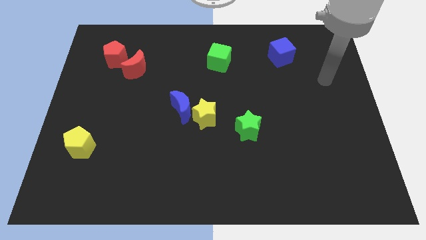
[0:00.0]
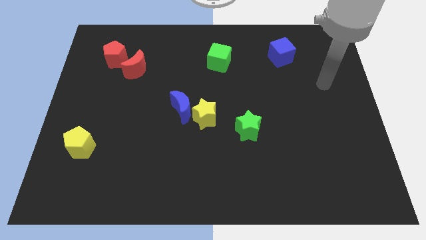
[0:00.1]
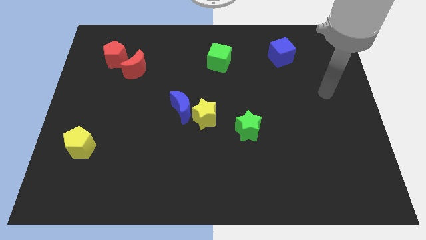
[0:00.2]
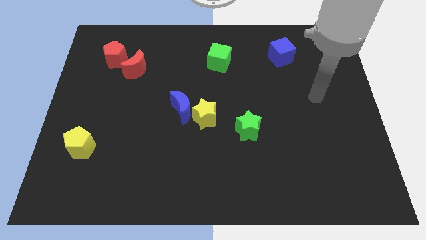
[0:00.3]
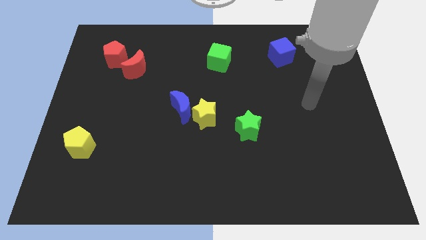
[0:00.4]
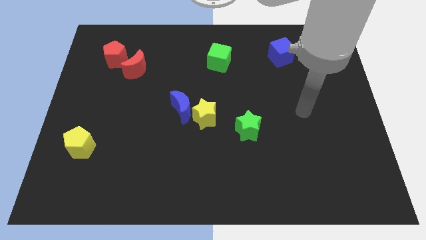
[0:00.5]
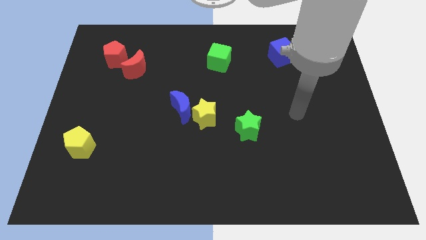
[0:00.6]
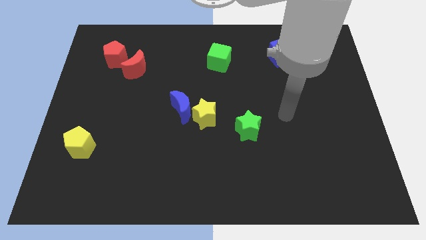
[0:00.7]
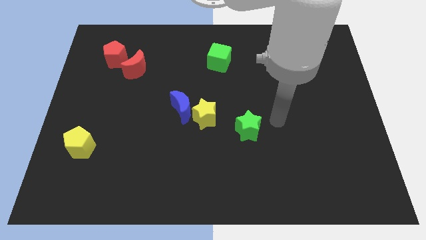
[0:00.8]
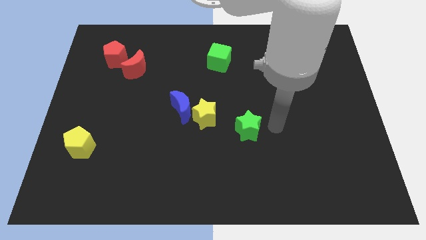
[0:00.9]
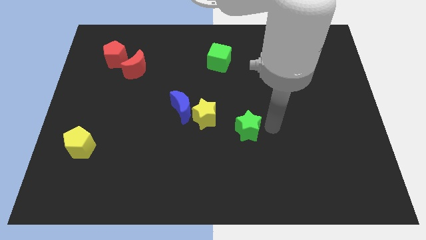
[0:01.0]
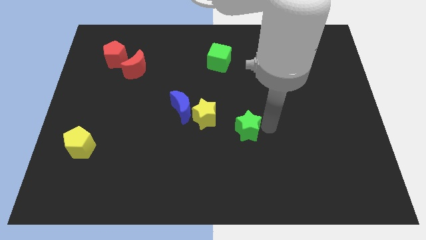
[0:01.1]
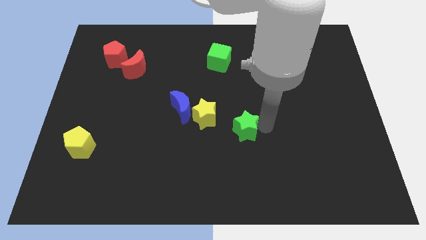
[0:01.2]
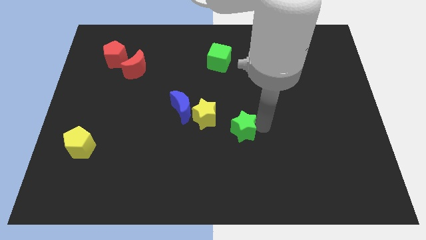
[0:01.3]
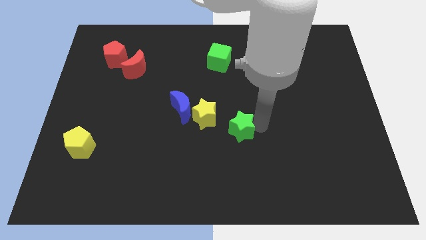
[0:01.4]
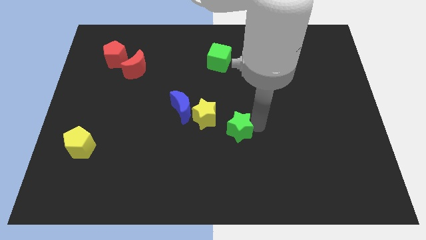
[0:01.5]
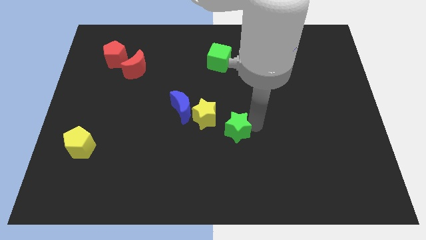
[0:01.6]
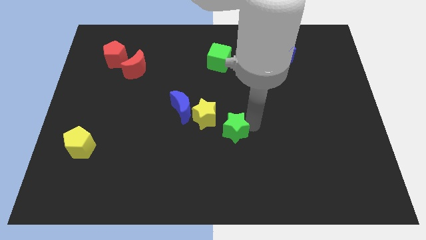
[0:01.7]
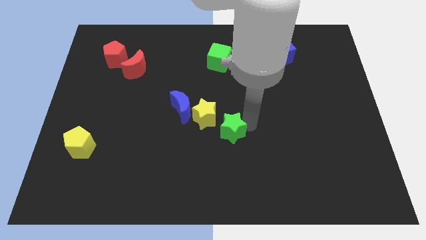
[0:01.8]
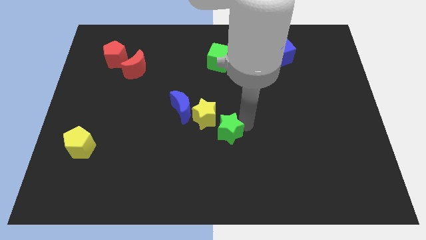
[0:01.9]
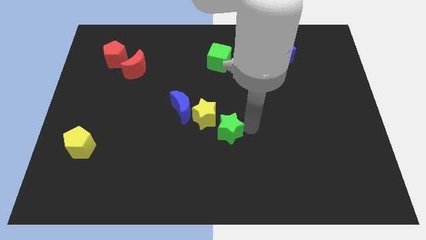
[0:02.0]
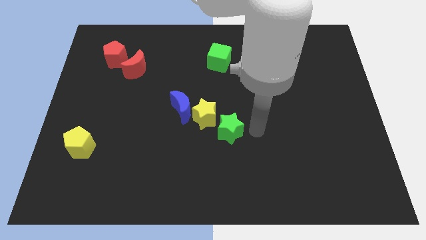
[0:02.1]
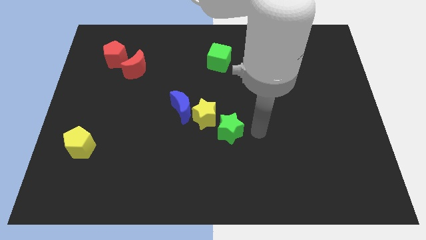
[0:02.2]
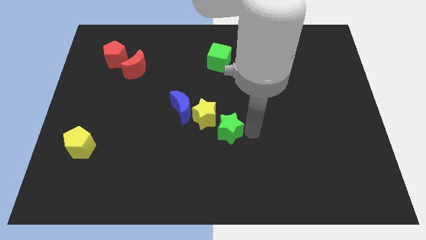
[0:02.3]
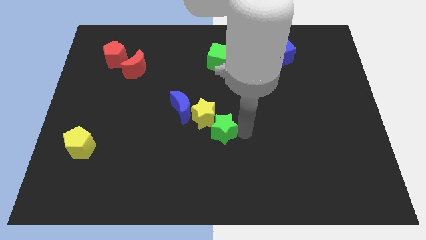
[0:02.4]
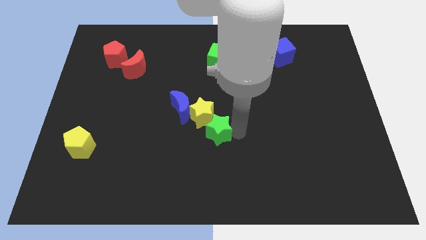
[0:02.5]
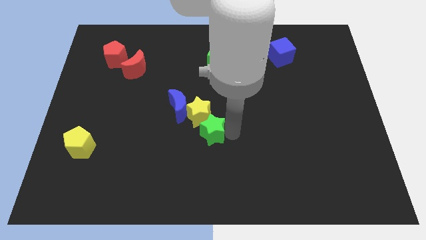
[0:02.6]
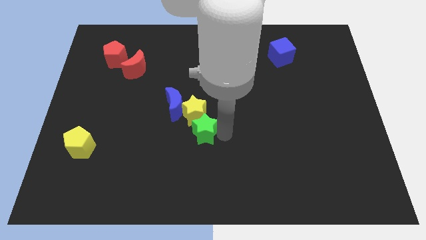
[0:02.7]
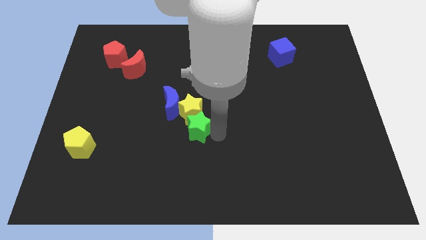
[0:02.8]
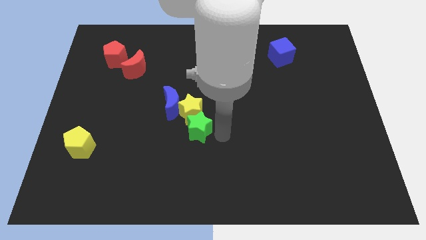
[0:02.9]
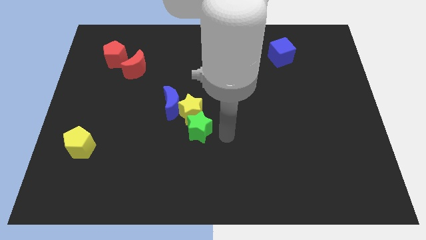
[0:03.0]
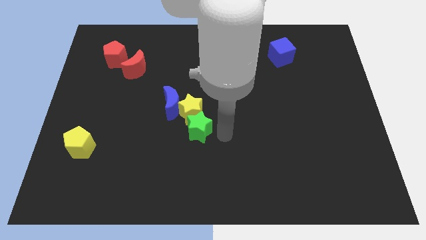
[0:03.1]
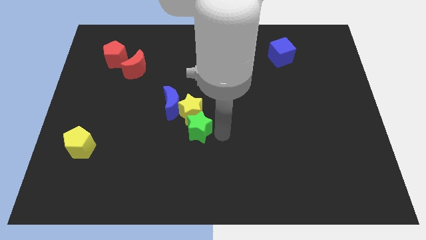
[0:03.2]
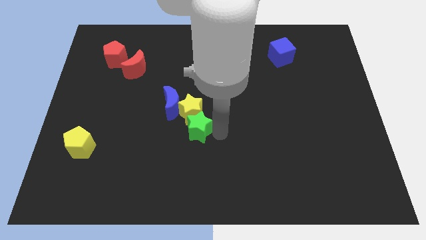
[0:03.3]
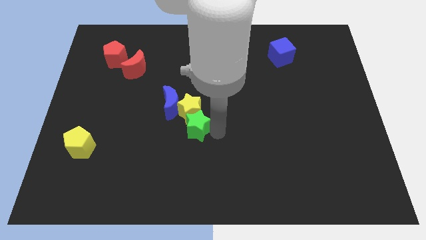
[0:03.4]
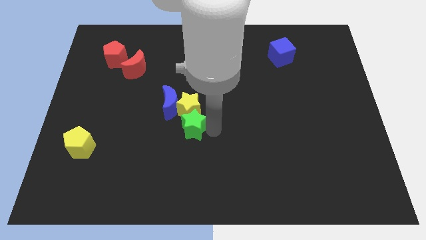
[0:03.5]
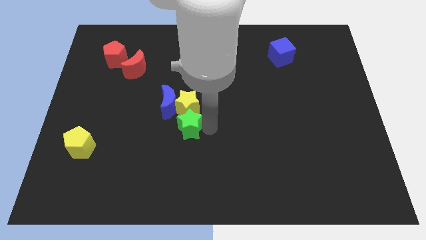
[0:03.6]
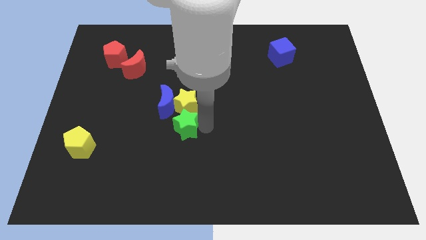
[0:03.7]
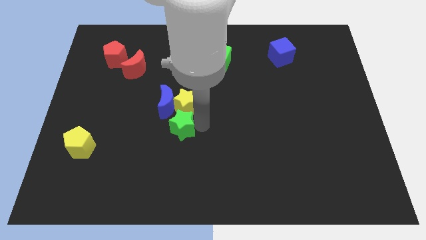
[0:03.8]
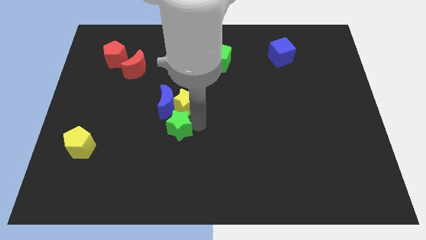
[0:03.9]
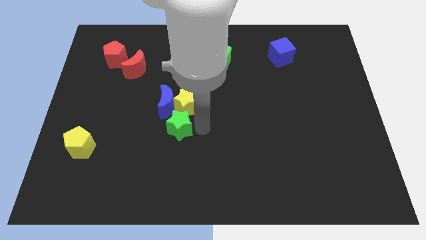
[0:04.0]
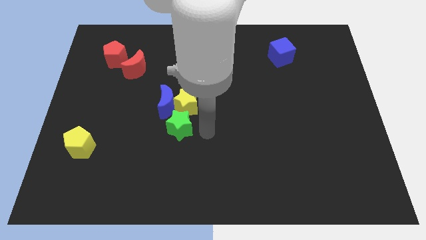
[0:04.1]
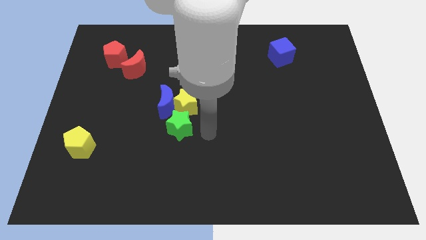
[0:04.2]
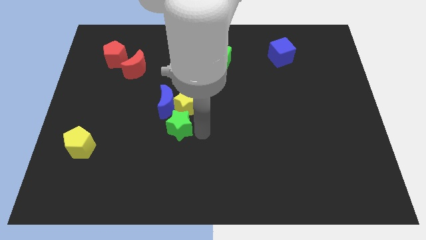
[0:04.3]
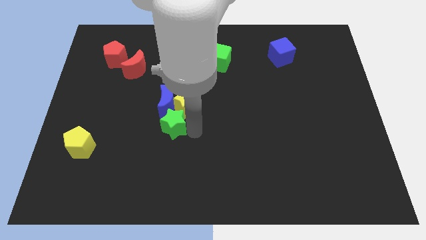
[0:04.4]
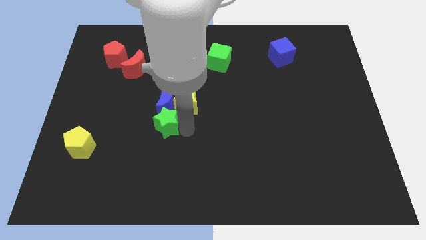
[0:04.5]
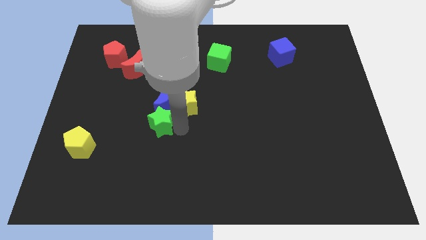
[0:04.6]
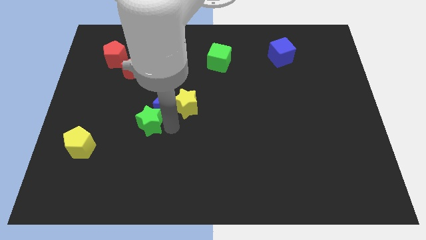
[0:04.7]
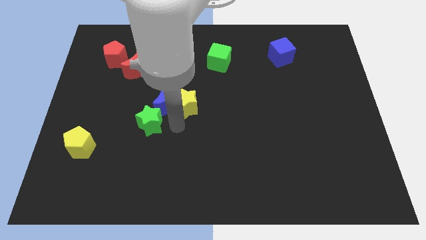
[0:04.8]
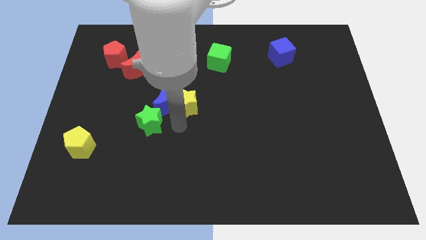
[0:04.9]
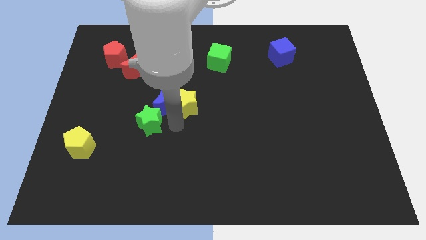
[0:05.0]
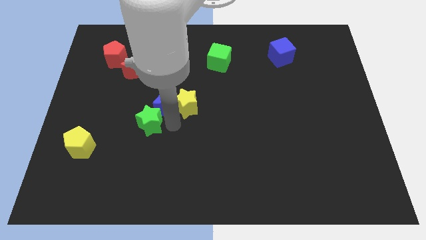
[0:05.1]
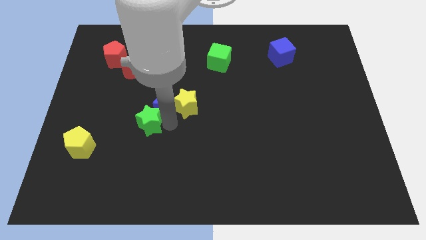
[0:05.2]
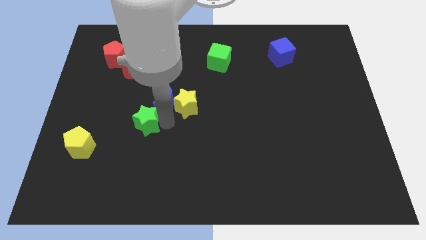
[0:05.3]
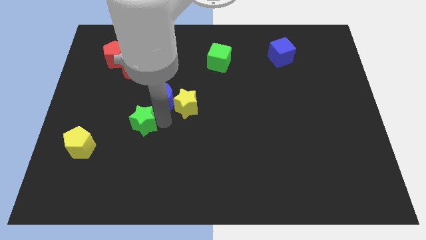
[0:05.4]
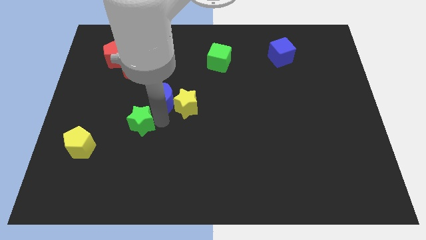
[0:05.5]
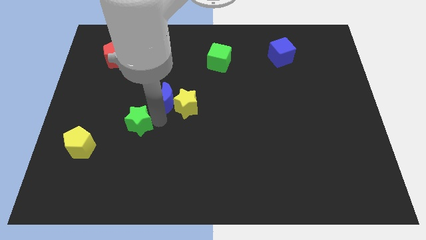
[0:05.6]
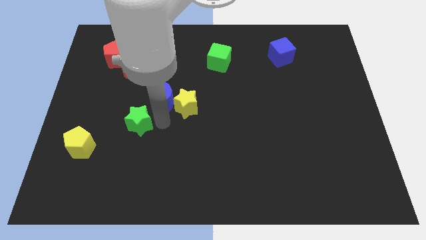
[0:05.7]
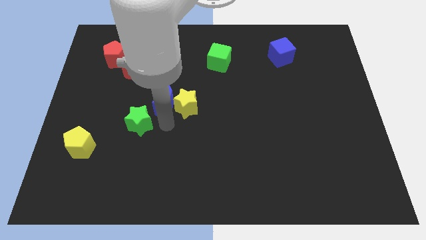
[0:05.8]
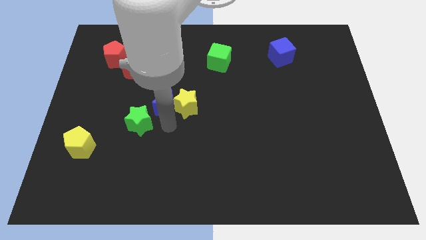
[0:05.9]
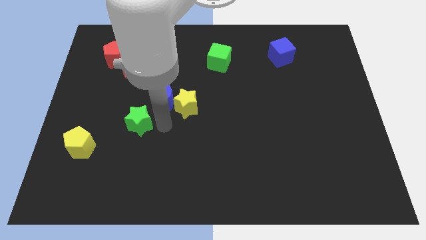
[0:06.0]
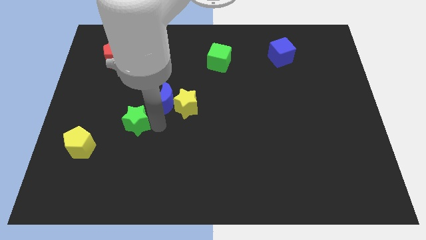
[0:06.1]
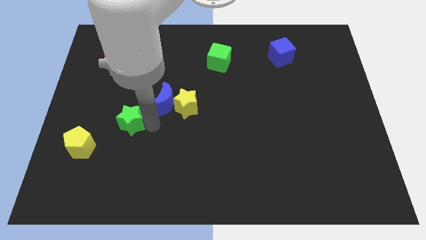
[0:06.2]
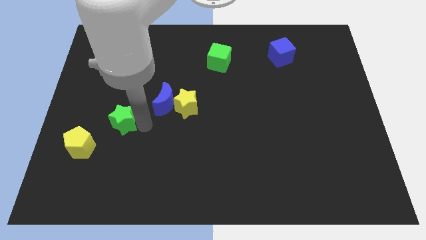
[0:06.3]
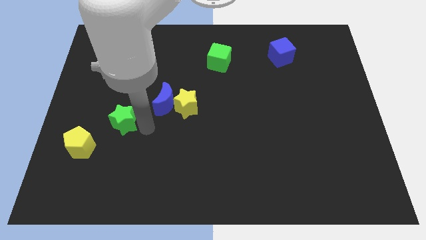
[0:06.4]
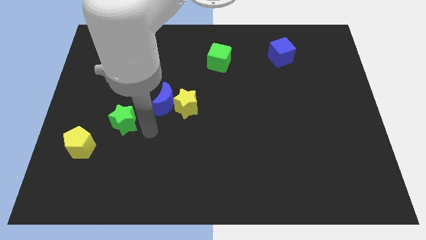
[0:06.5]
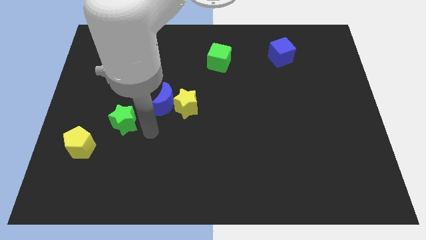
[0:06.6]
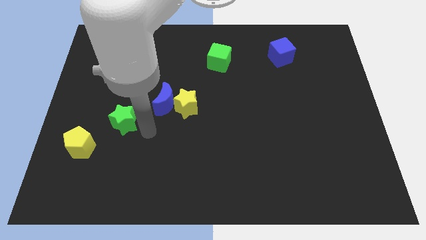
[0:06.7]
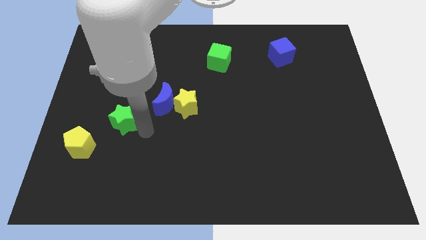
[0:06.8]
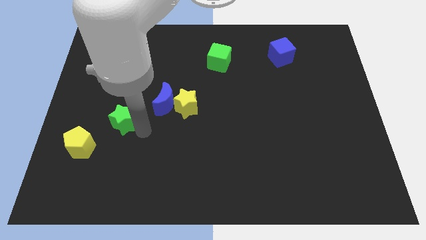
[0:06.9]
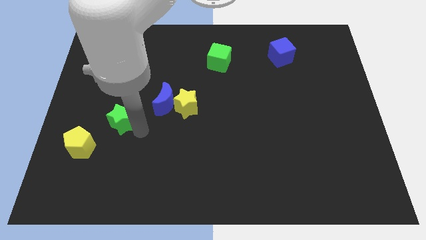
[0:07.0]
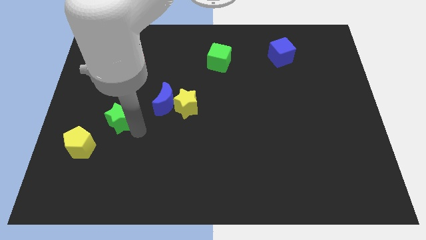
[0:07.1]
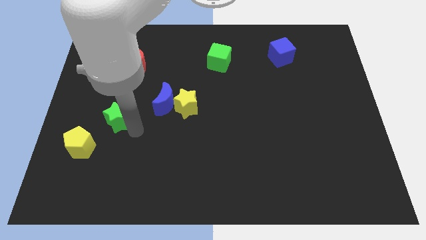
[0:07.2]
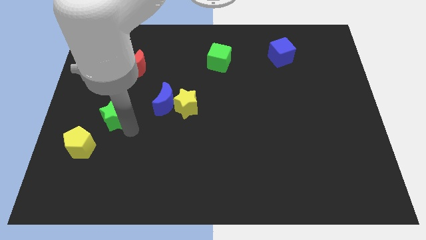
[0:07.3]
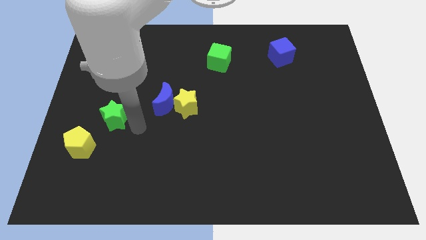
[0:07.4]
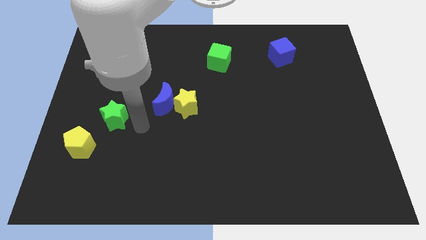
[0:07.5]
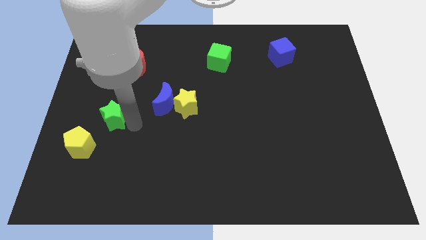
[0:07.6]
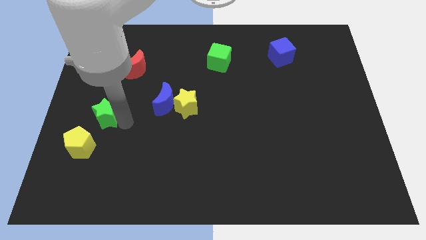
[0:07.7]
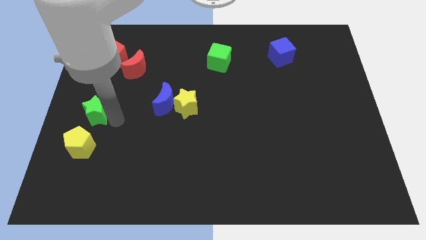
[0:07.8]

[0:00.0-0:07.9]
move the green star to the center left
